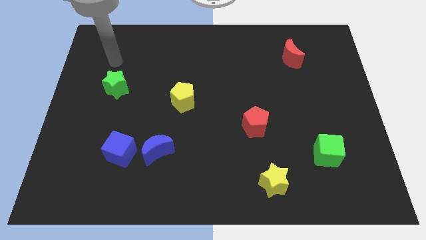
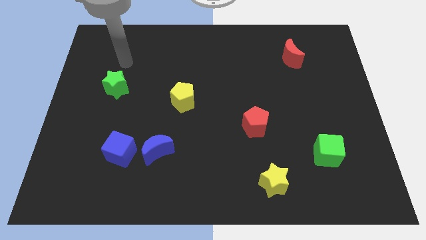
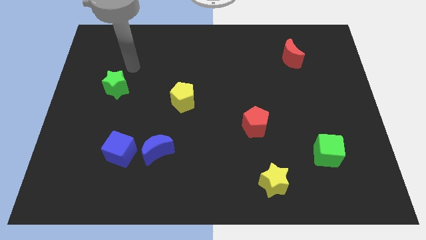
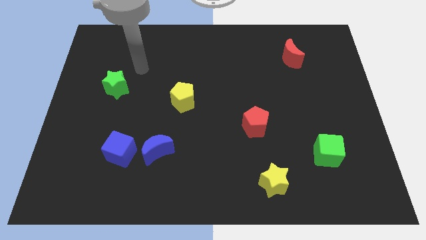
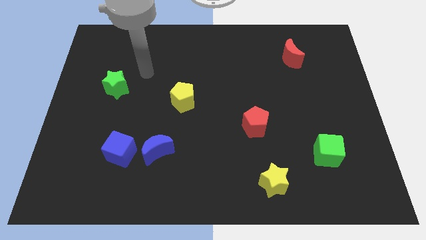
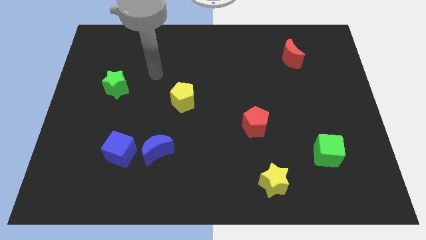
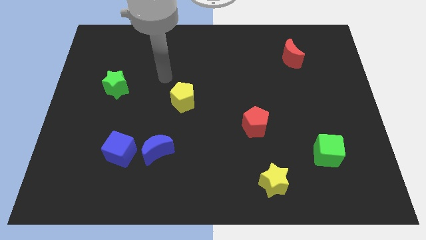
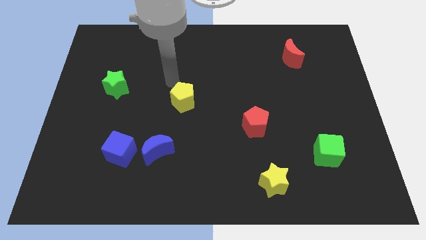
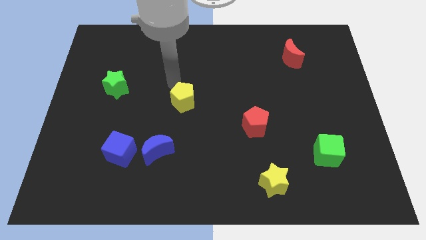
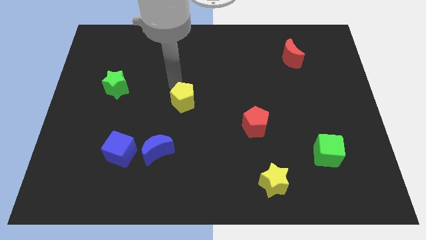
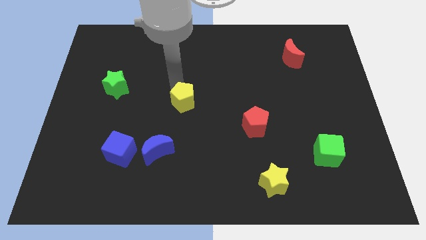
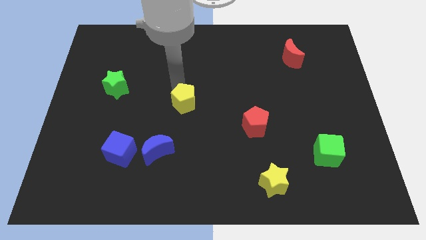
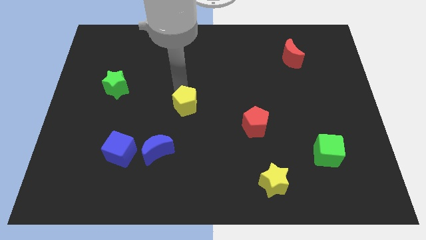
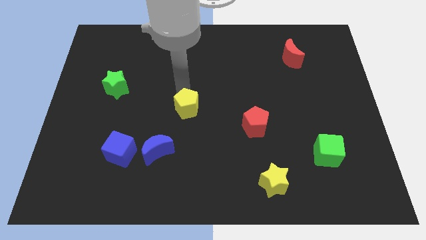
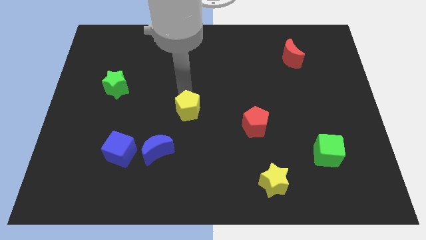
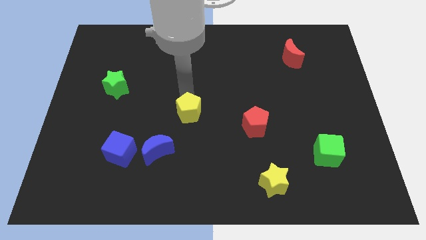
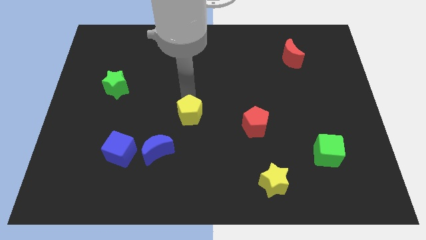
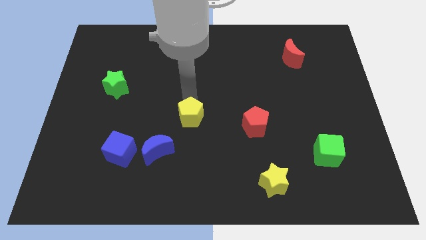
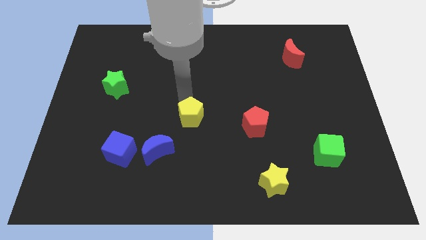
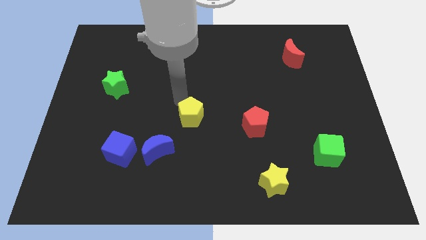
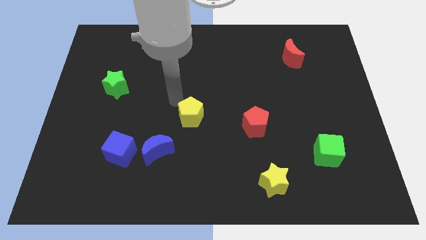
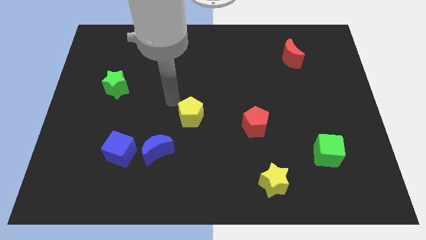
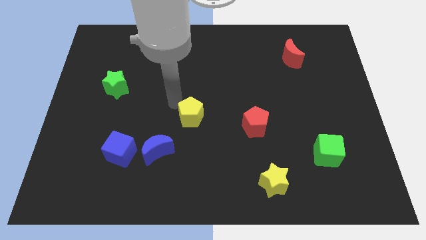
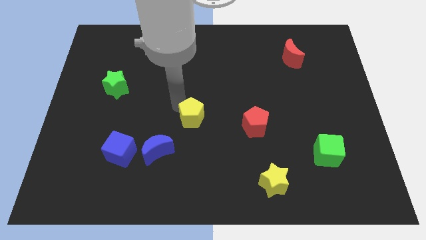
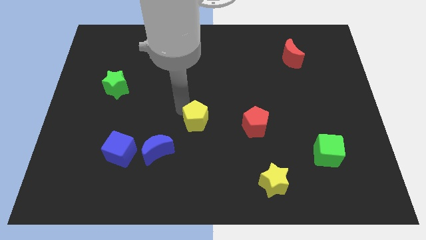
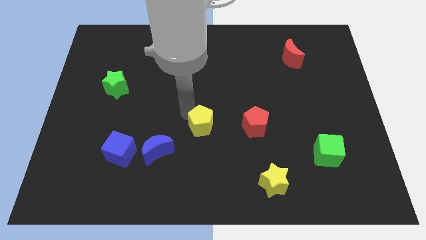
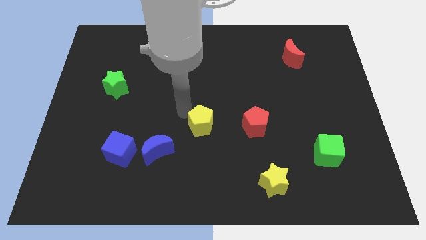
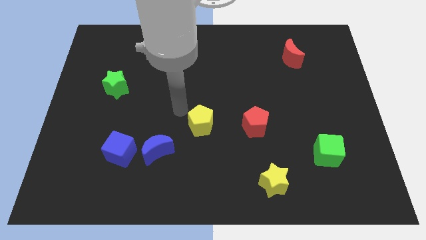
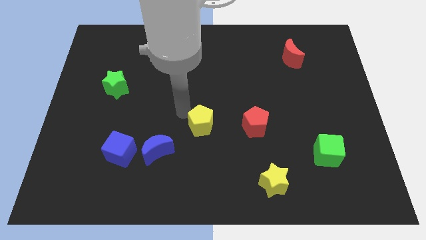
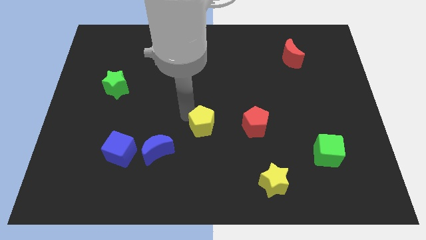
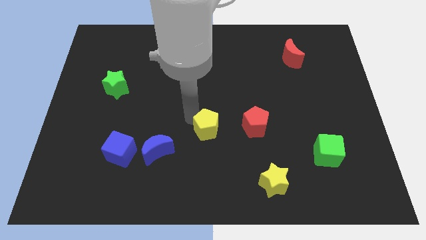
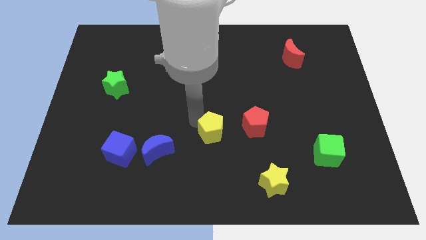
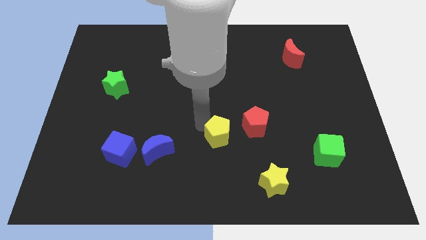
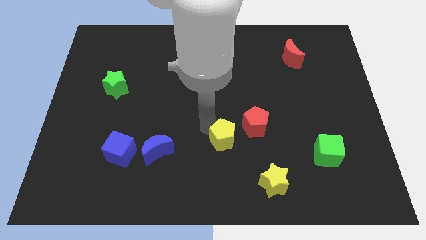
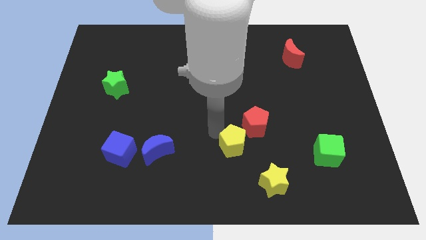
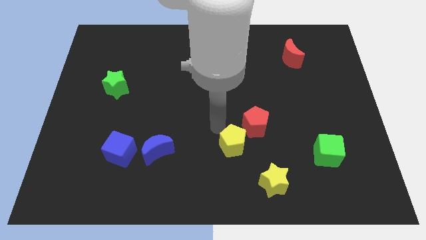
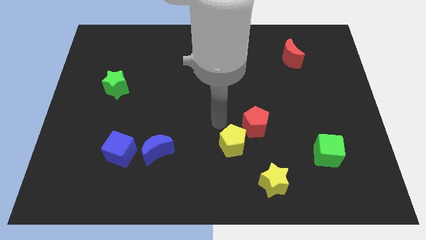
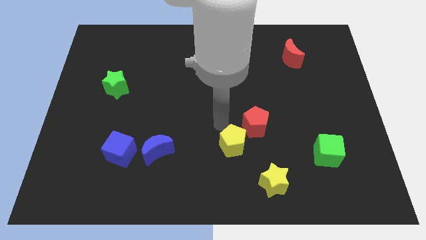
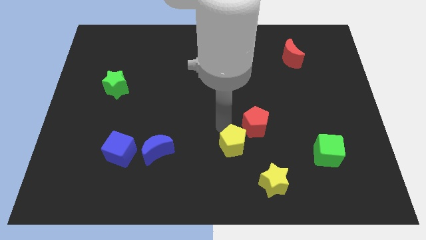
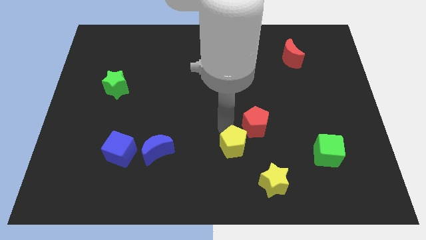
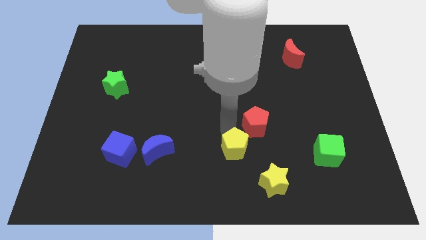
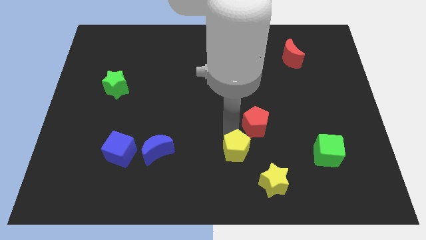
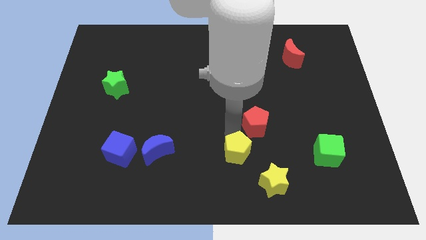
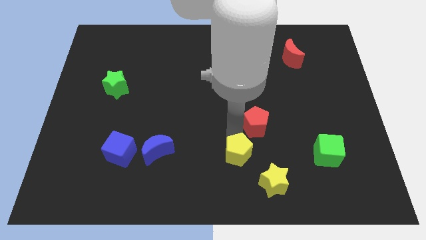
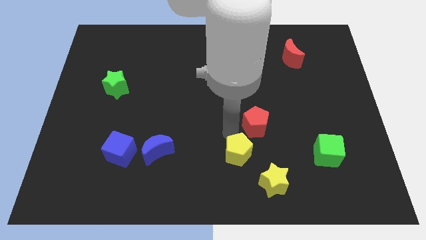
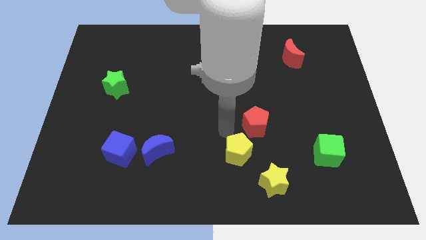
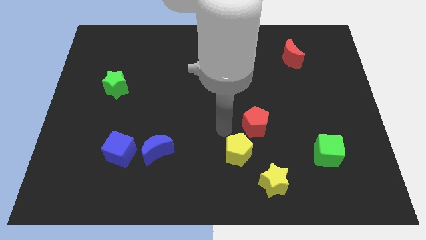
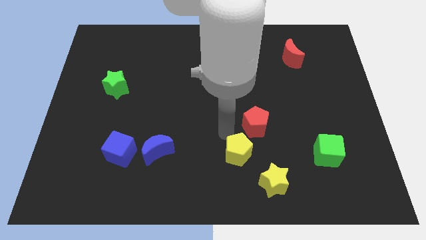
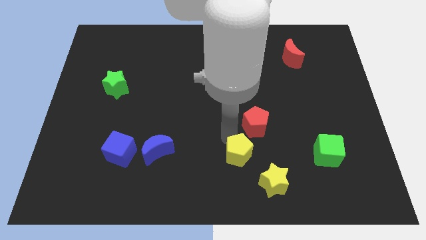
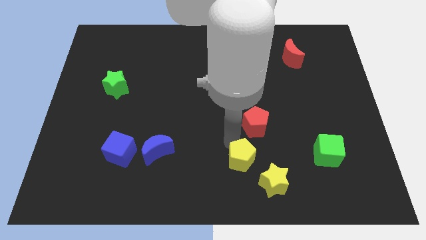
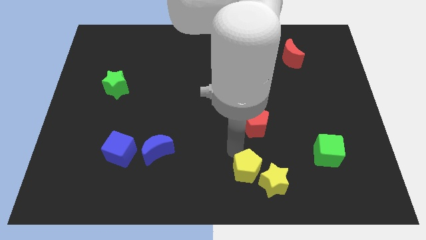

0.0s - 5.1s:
push the yellow pentagon next to the yellow star

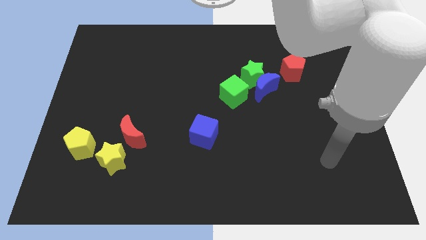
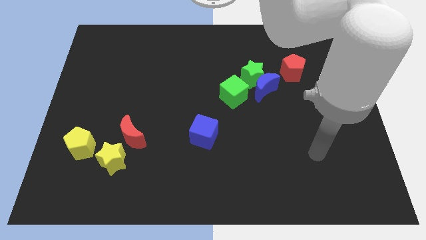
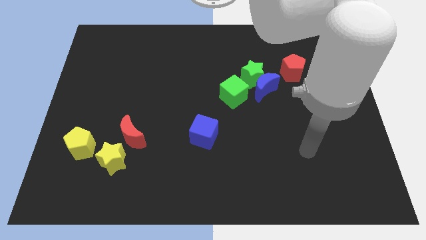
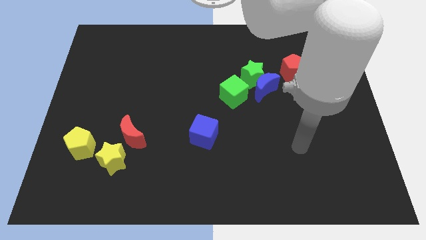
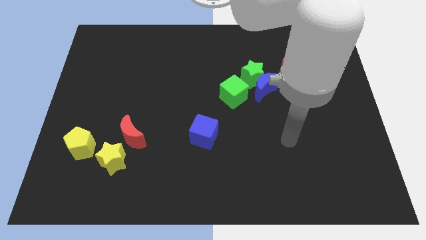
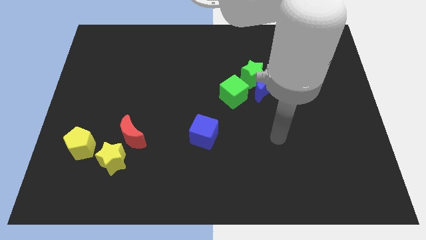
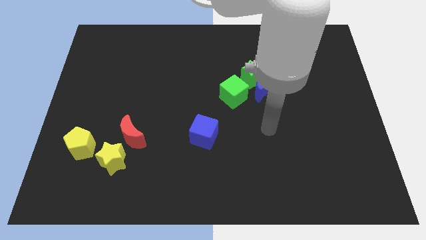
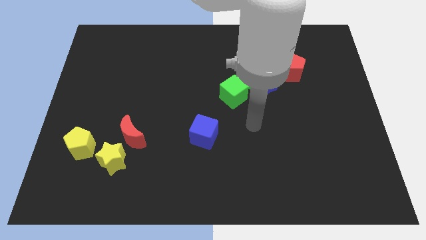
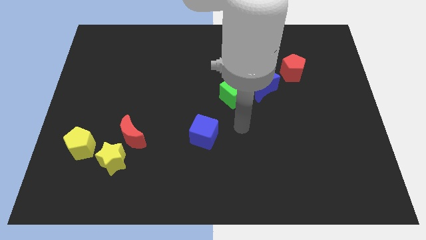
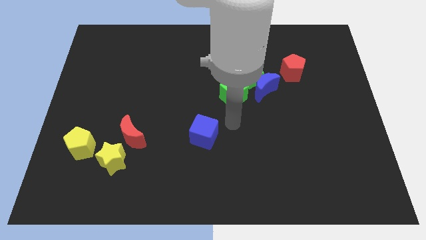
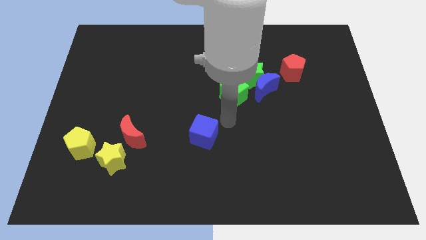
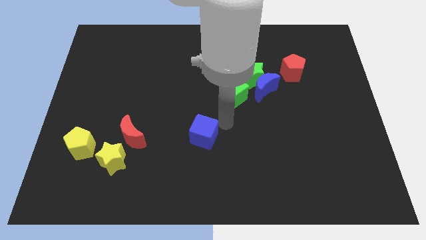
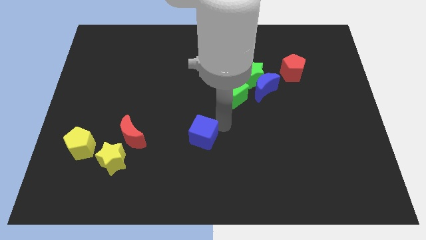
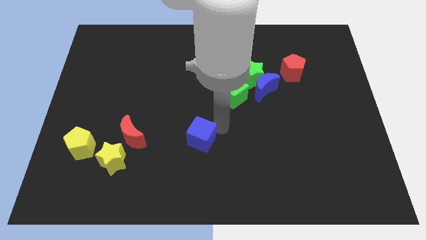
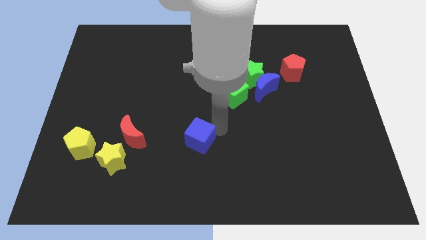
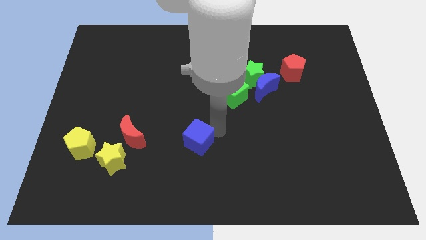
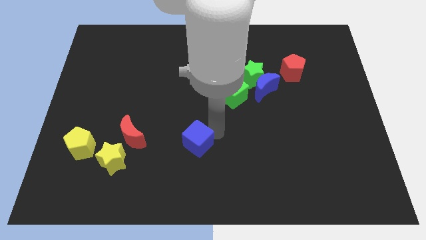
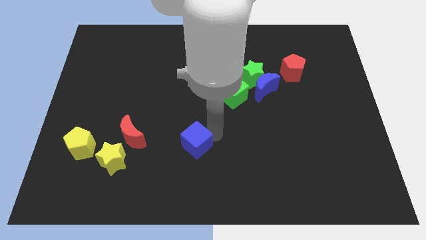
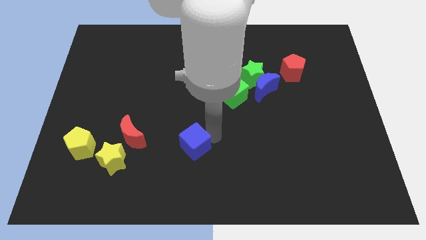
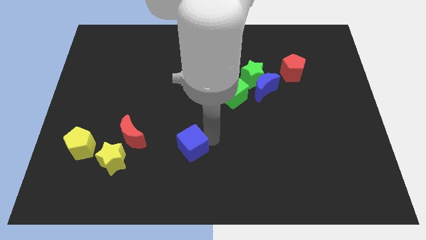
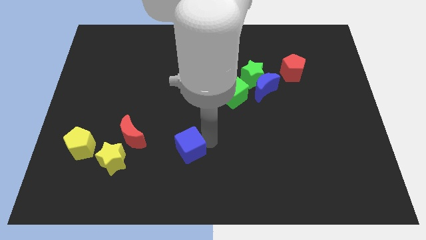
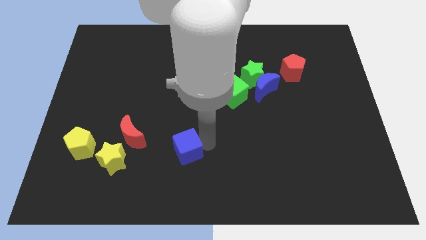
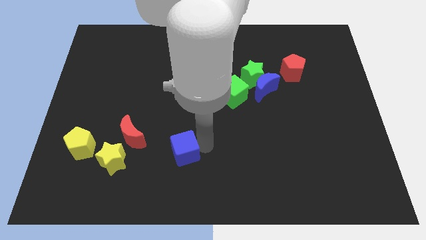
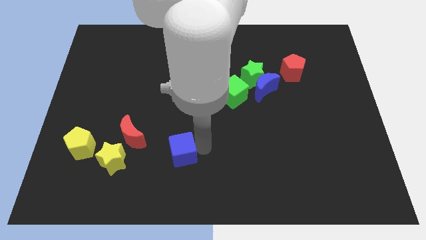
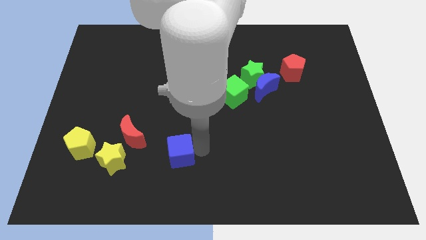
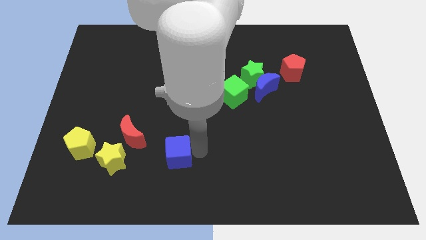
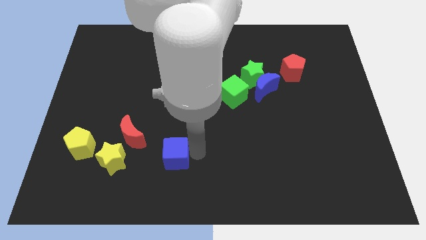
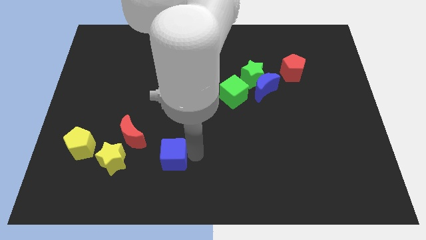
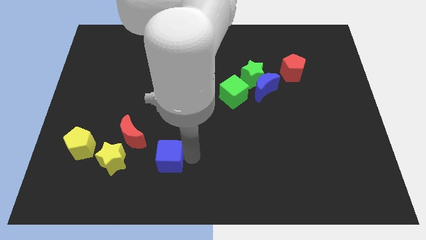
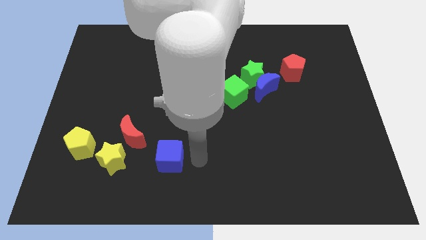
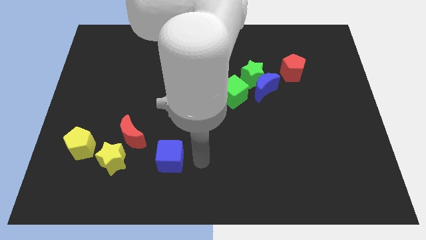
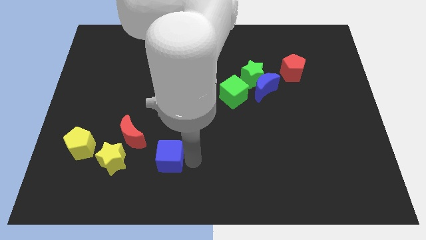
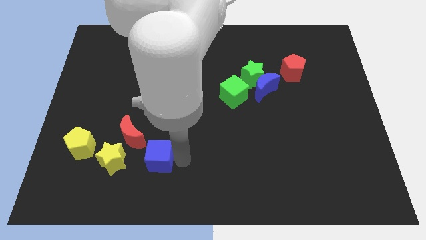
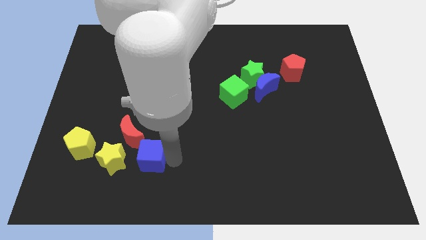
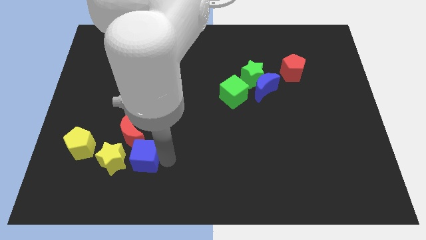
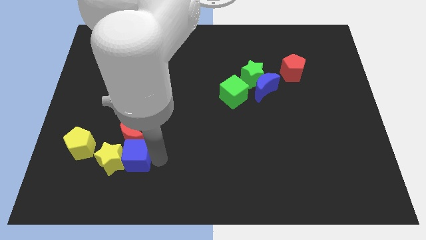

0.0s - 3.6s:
put the blue cube towards the yellow star
